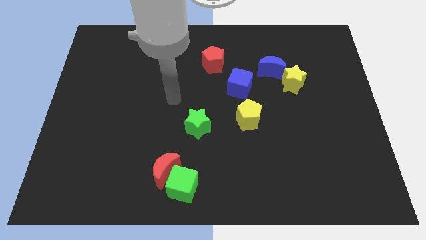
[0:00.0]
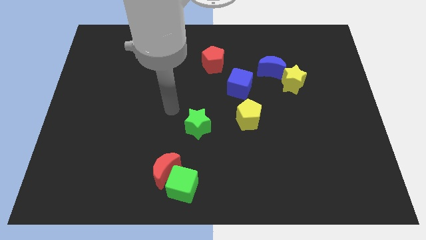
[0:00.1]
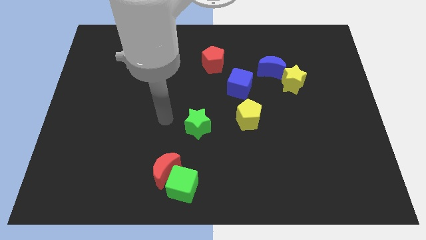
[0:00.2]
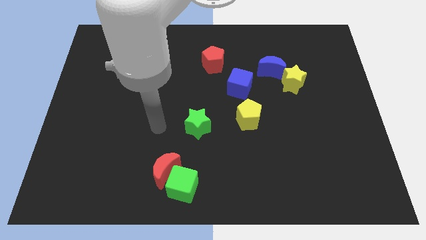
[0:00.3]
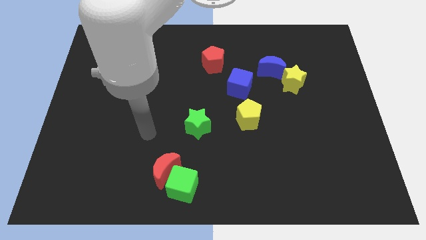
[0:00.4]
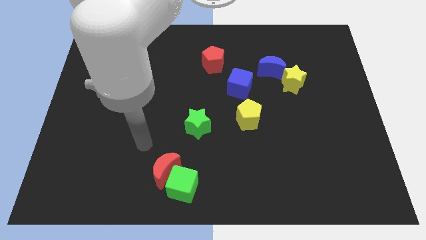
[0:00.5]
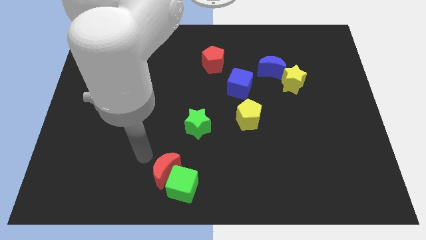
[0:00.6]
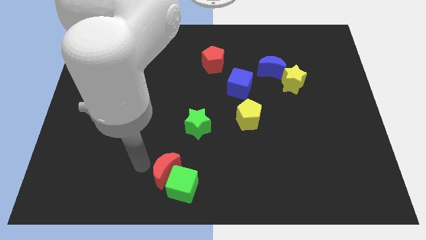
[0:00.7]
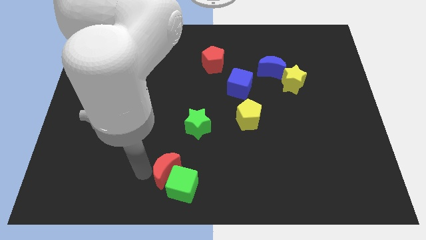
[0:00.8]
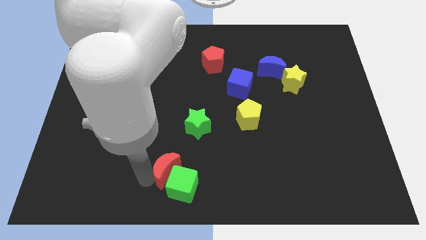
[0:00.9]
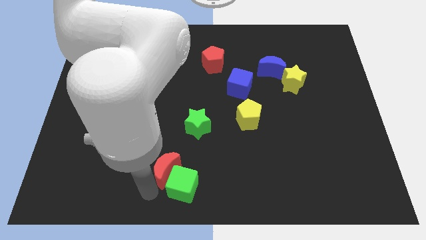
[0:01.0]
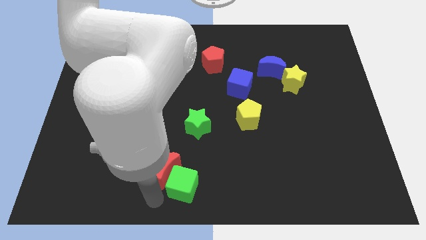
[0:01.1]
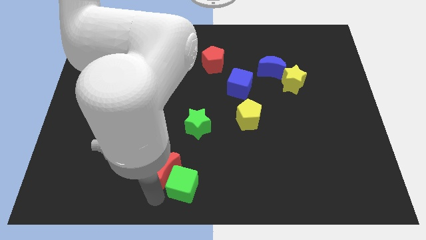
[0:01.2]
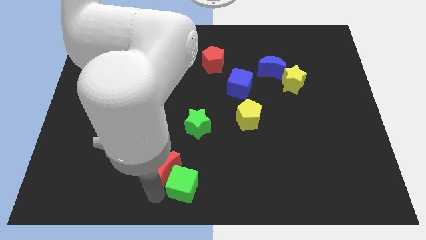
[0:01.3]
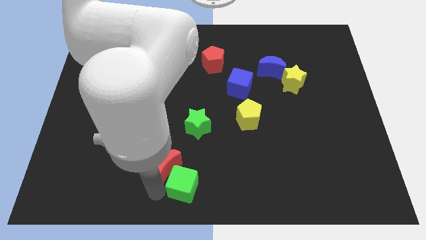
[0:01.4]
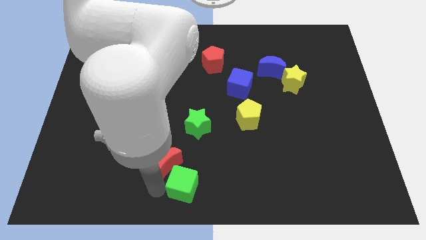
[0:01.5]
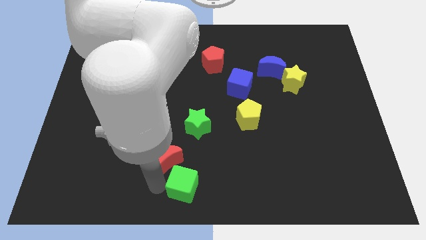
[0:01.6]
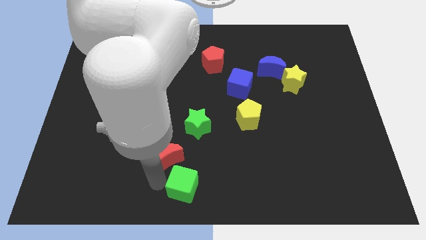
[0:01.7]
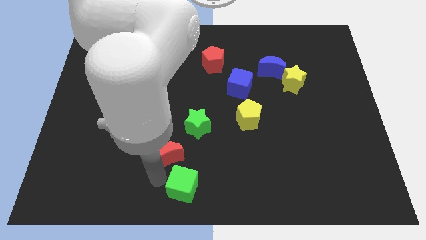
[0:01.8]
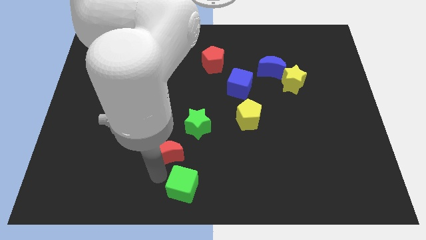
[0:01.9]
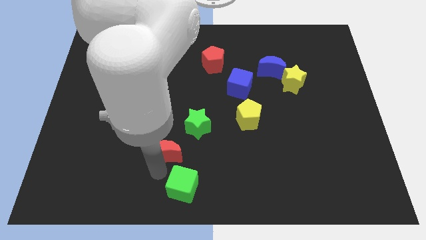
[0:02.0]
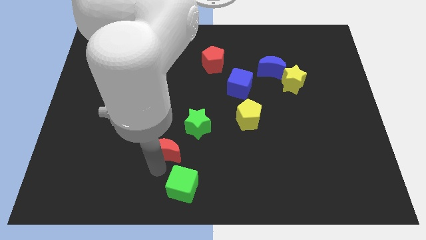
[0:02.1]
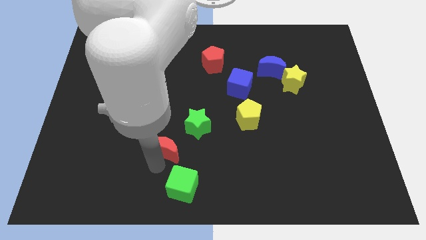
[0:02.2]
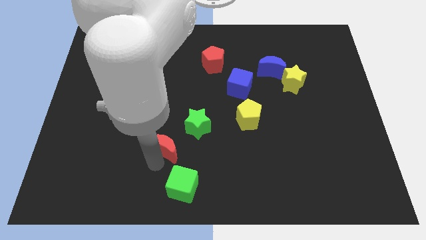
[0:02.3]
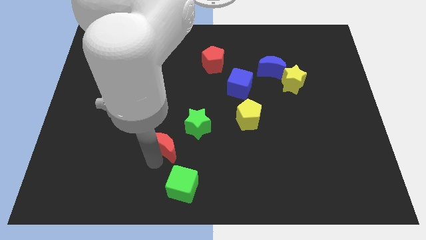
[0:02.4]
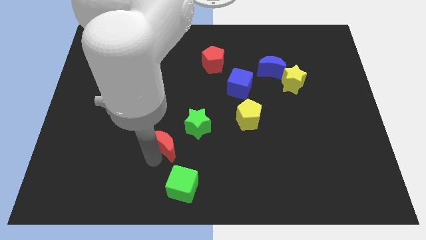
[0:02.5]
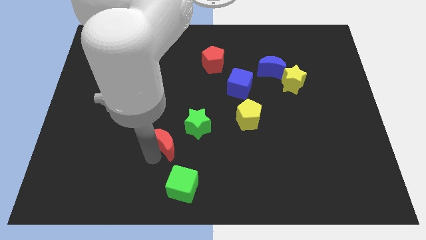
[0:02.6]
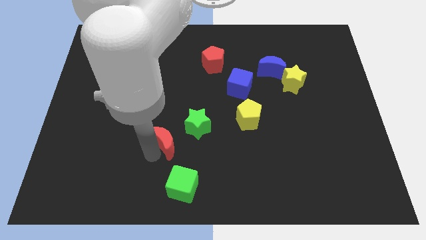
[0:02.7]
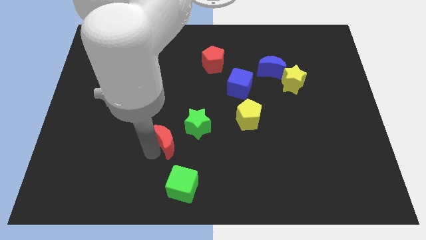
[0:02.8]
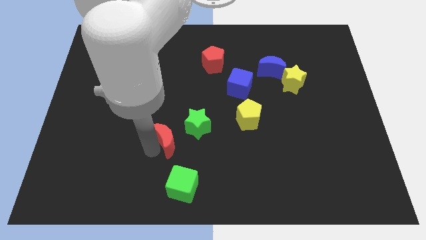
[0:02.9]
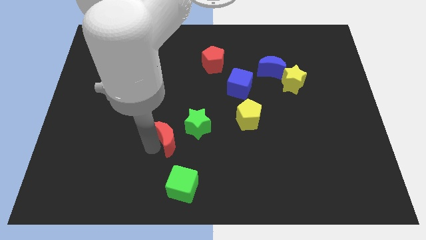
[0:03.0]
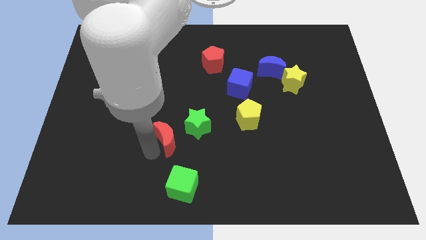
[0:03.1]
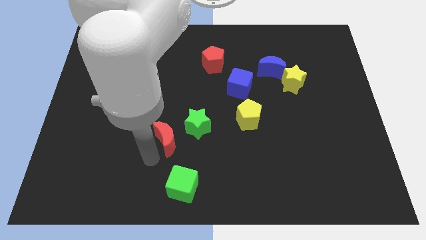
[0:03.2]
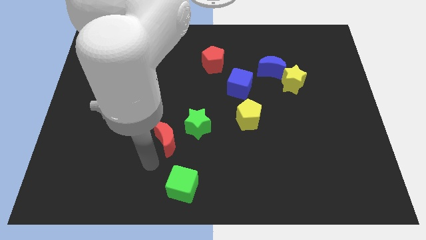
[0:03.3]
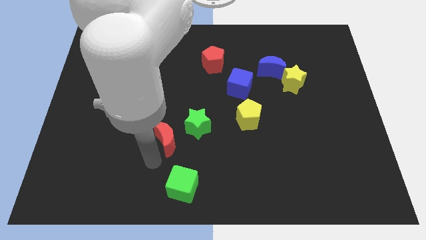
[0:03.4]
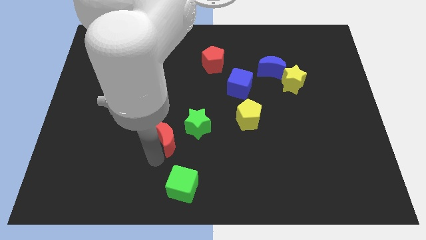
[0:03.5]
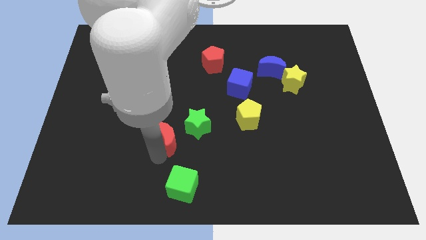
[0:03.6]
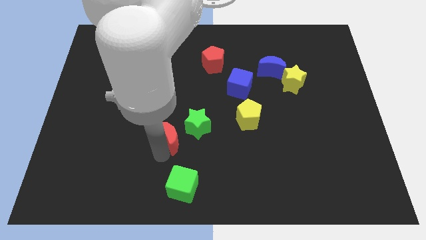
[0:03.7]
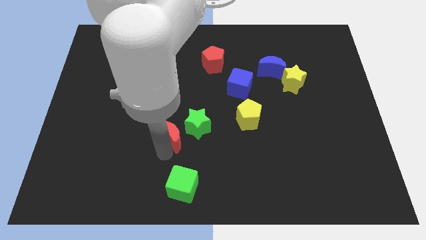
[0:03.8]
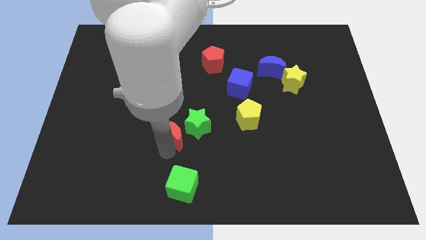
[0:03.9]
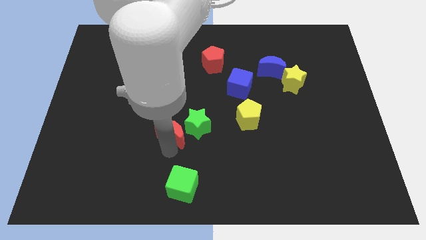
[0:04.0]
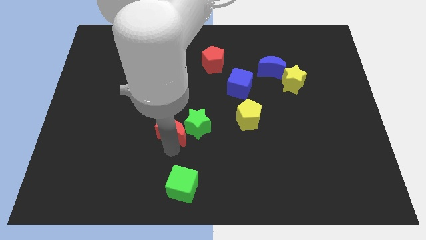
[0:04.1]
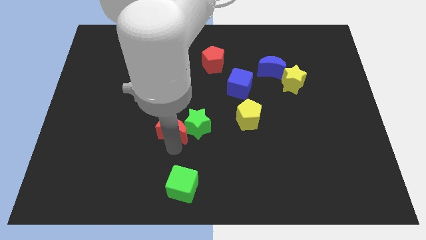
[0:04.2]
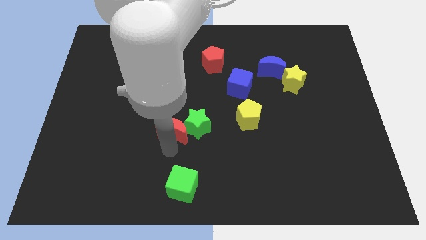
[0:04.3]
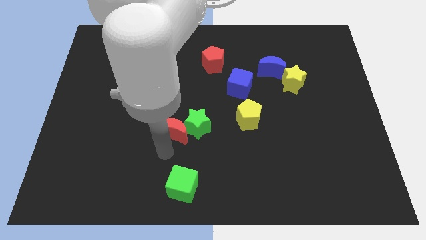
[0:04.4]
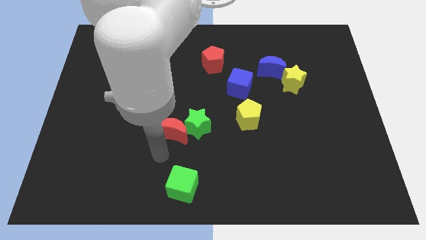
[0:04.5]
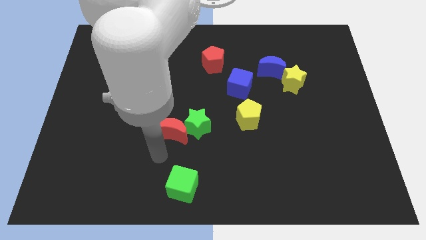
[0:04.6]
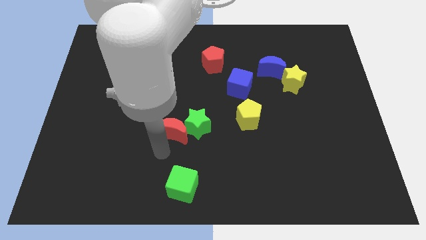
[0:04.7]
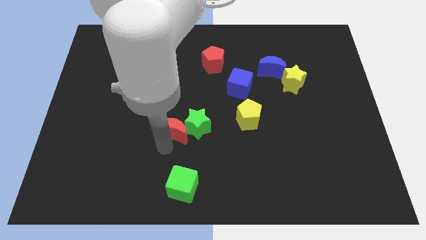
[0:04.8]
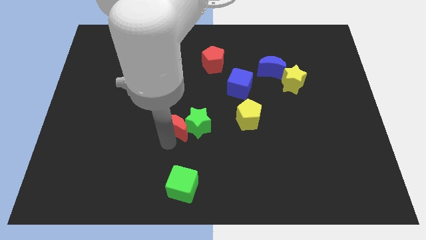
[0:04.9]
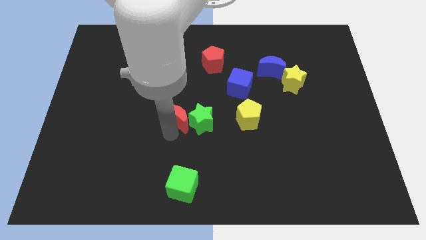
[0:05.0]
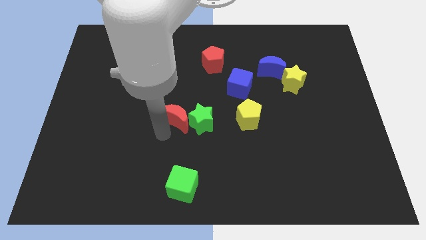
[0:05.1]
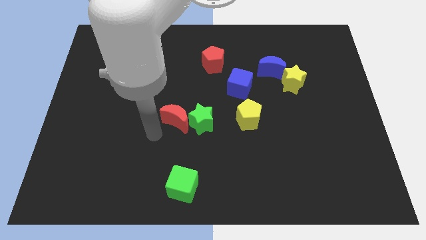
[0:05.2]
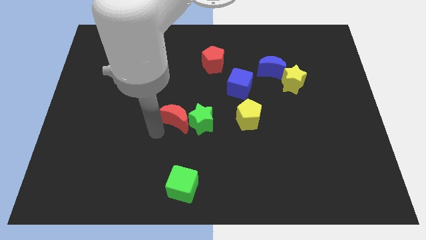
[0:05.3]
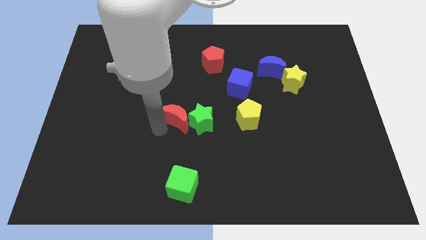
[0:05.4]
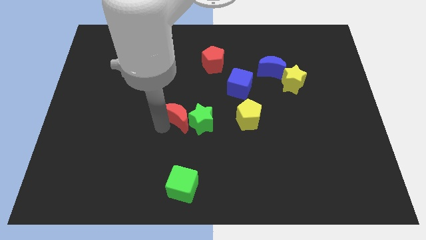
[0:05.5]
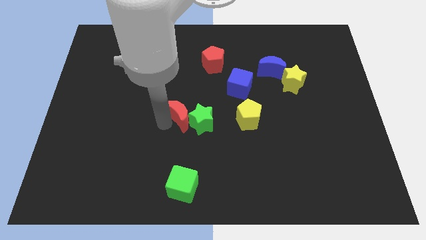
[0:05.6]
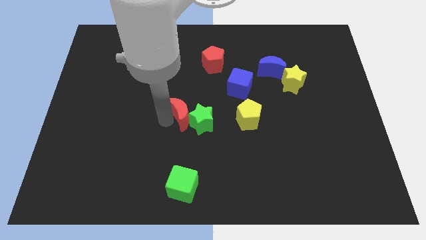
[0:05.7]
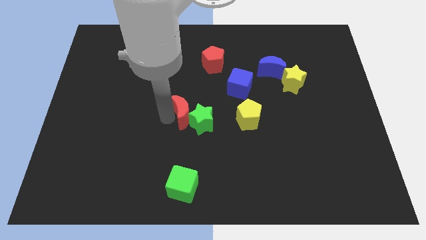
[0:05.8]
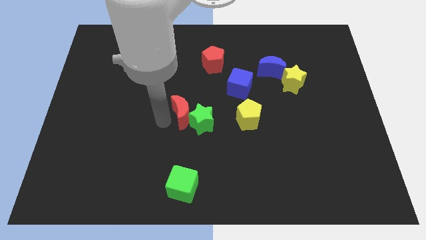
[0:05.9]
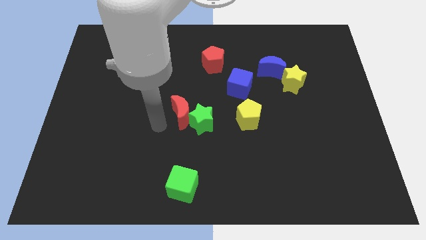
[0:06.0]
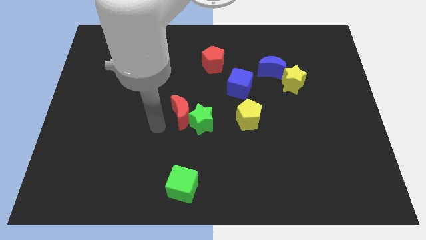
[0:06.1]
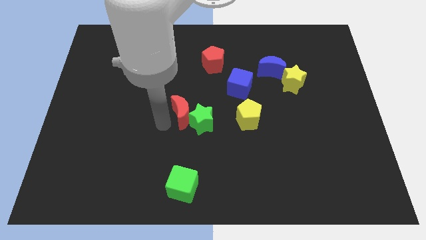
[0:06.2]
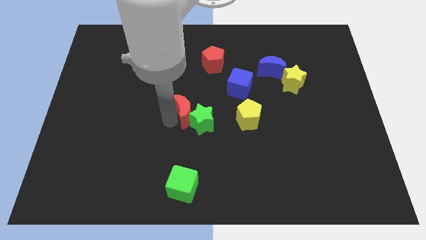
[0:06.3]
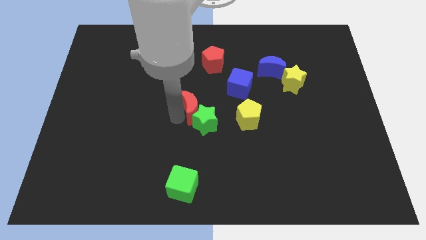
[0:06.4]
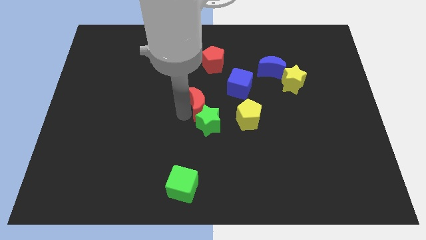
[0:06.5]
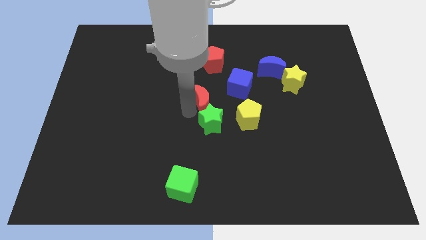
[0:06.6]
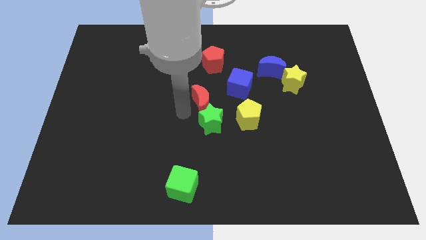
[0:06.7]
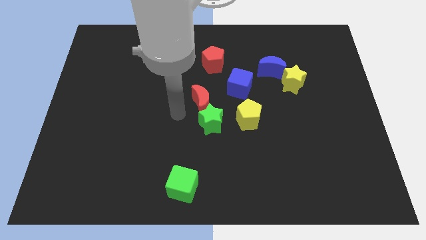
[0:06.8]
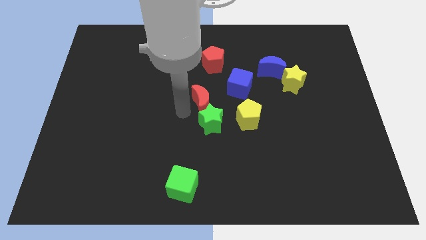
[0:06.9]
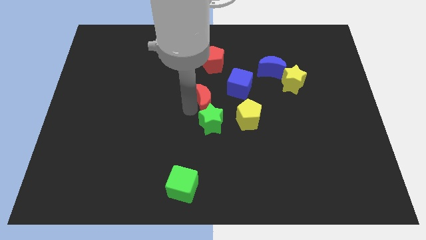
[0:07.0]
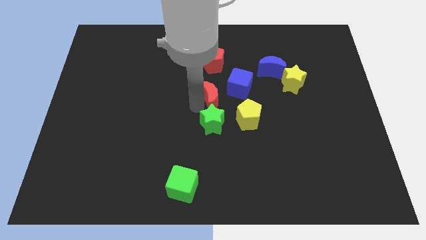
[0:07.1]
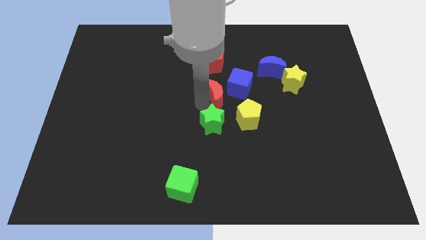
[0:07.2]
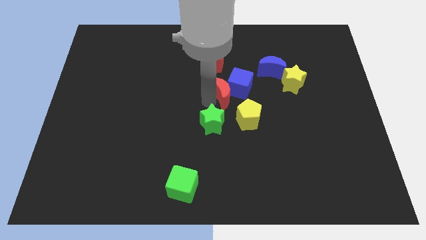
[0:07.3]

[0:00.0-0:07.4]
put the red moon next to the blue cube

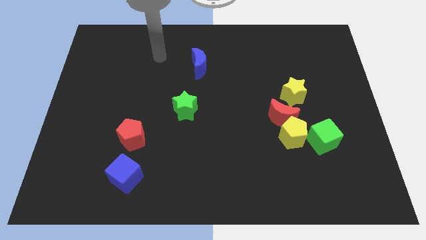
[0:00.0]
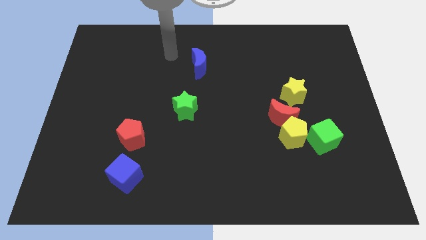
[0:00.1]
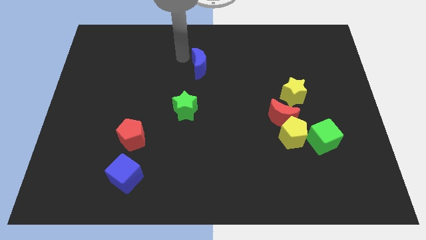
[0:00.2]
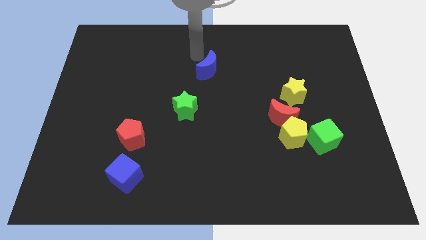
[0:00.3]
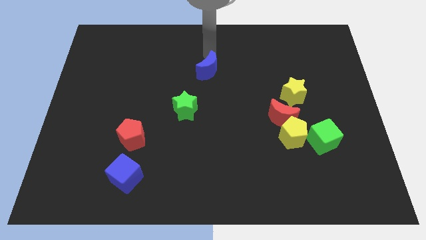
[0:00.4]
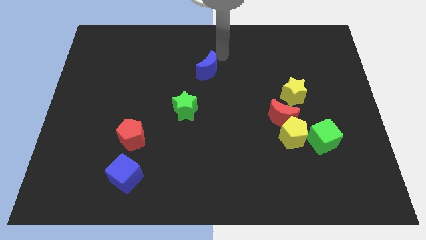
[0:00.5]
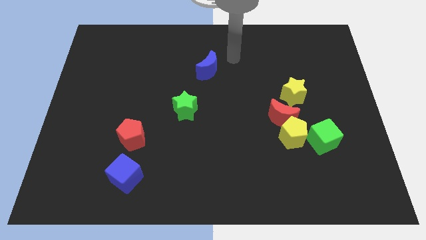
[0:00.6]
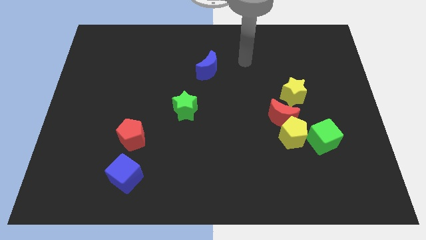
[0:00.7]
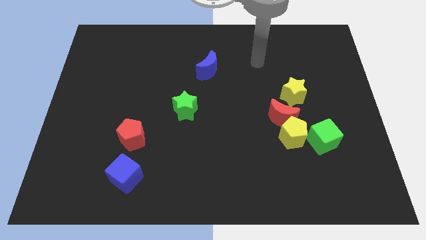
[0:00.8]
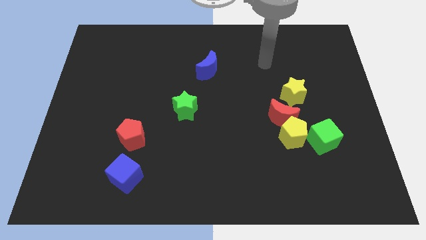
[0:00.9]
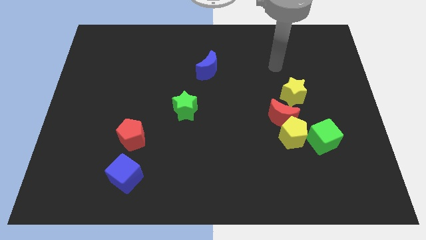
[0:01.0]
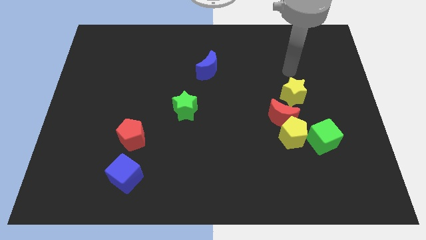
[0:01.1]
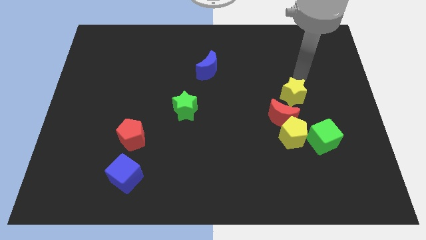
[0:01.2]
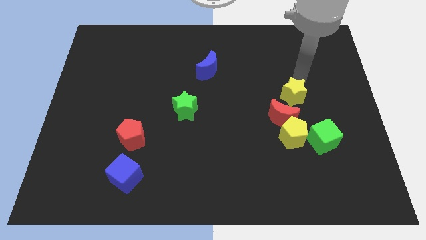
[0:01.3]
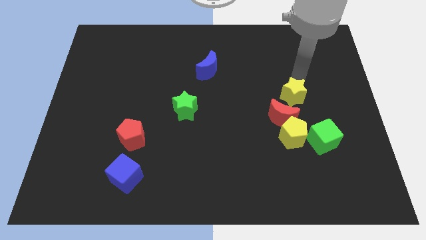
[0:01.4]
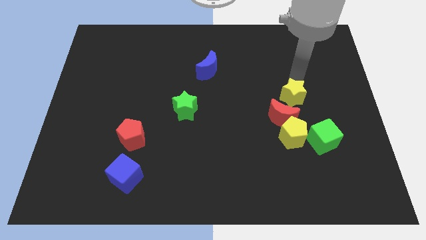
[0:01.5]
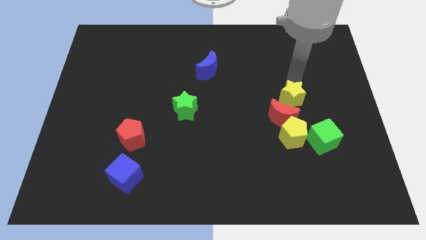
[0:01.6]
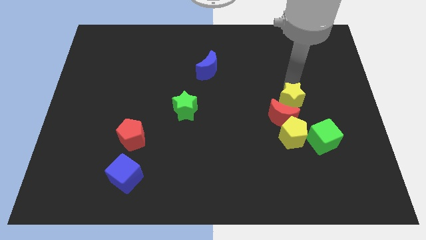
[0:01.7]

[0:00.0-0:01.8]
push the yellow star close to the red moon
